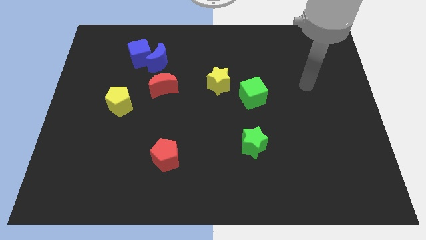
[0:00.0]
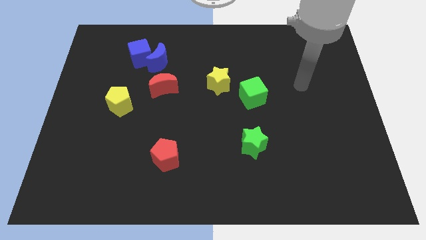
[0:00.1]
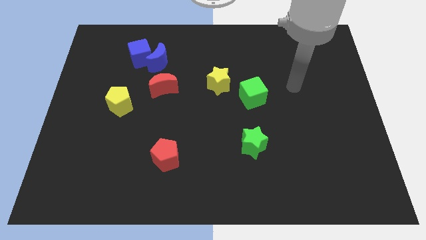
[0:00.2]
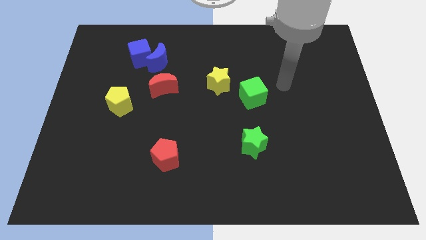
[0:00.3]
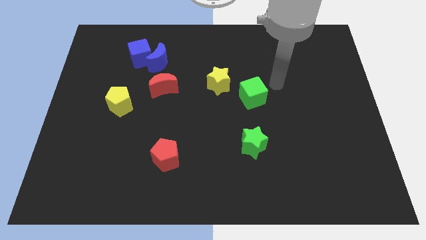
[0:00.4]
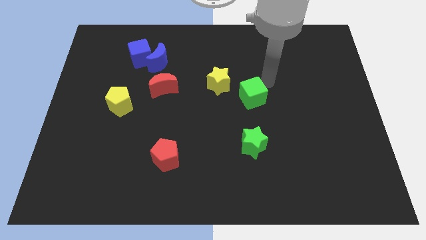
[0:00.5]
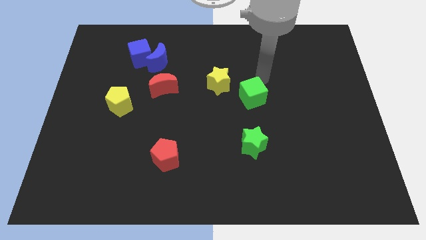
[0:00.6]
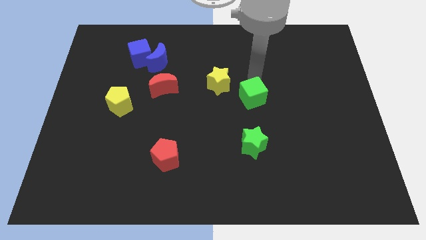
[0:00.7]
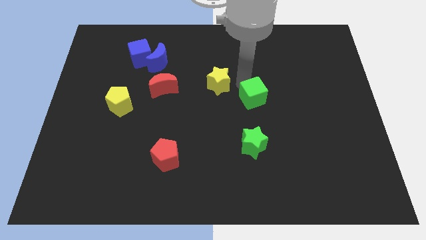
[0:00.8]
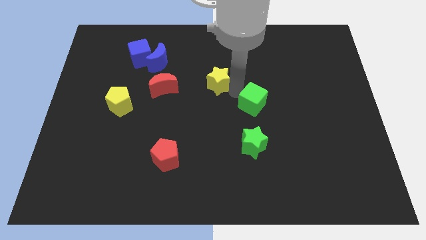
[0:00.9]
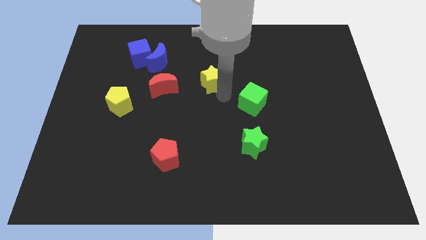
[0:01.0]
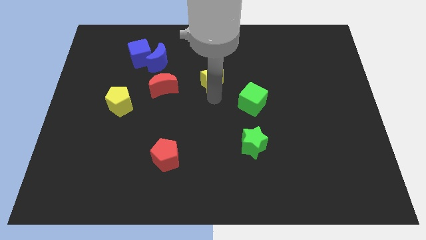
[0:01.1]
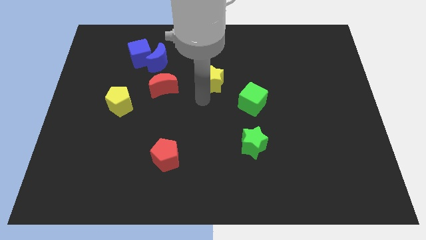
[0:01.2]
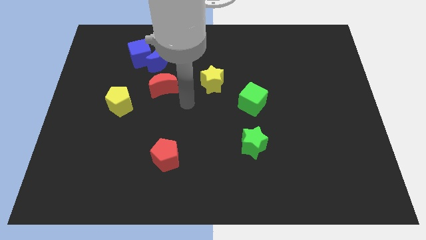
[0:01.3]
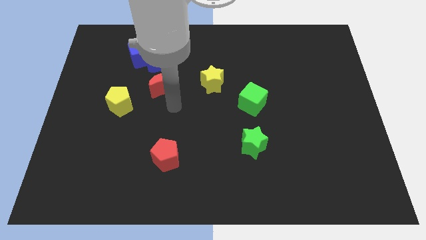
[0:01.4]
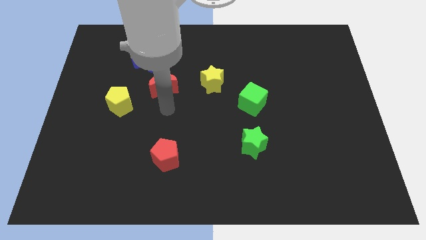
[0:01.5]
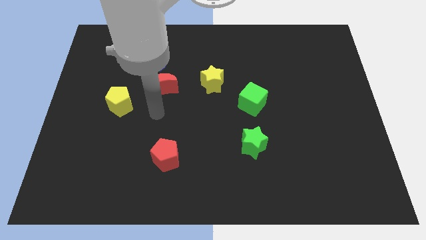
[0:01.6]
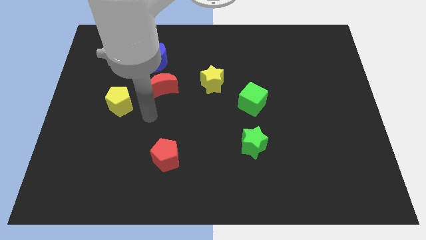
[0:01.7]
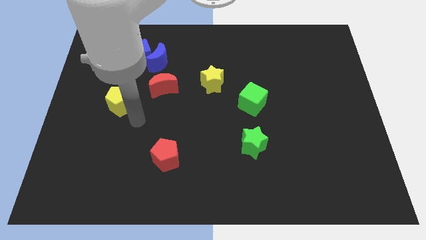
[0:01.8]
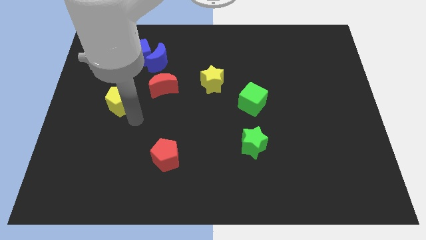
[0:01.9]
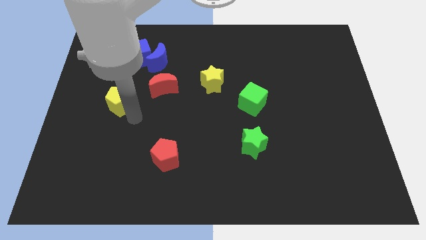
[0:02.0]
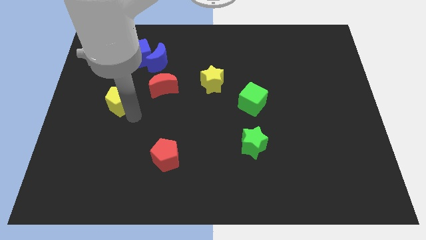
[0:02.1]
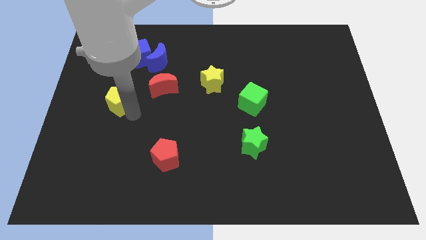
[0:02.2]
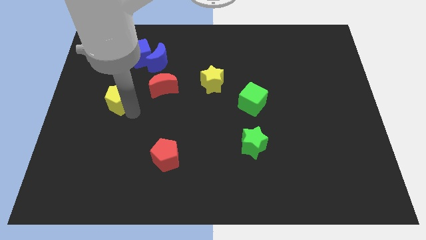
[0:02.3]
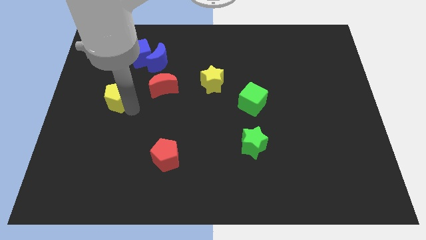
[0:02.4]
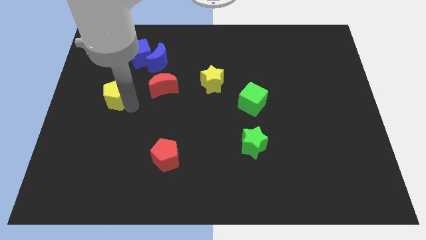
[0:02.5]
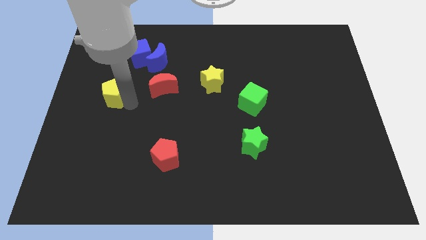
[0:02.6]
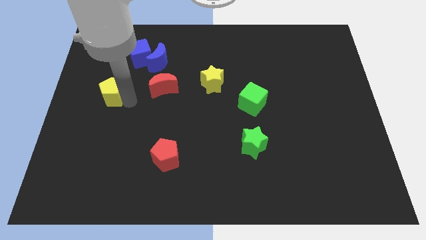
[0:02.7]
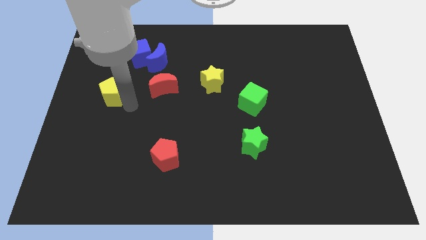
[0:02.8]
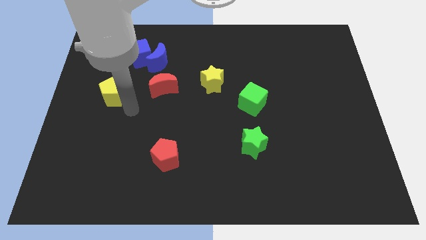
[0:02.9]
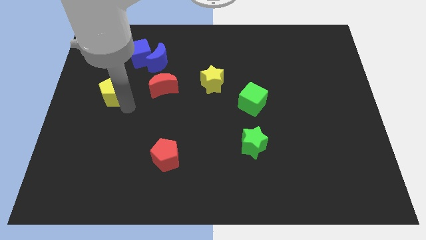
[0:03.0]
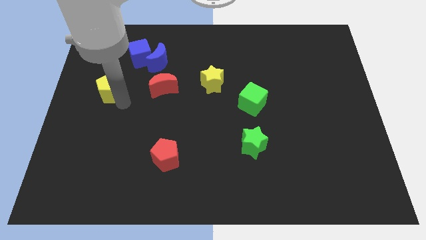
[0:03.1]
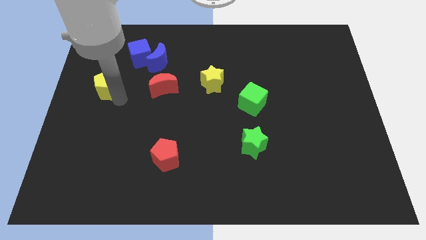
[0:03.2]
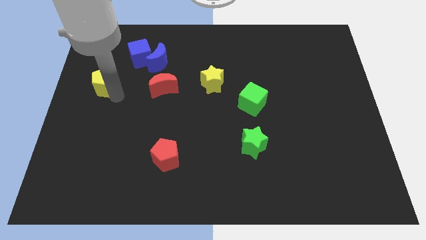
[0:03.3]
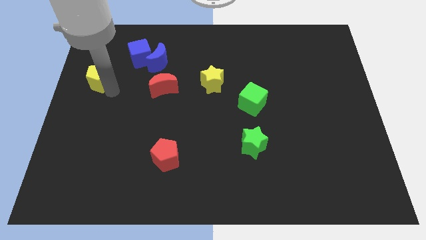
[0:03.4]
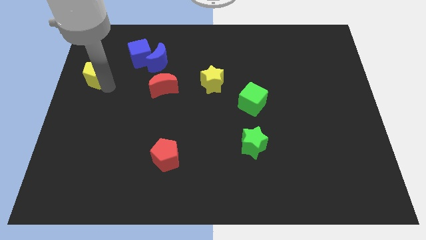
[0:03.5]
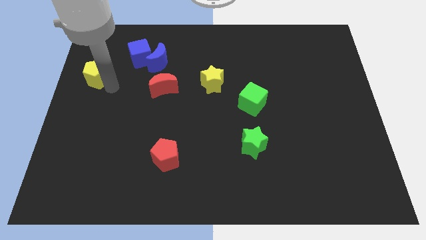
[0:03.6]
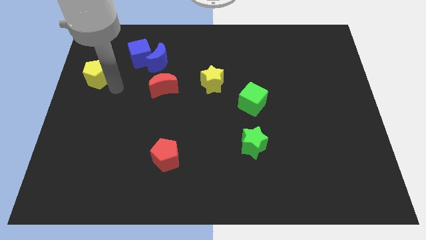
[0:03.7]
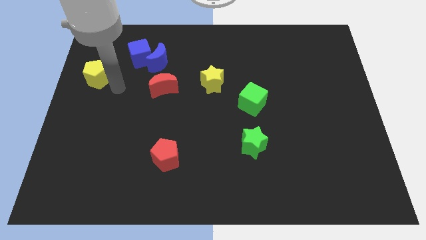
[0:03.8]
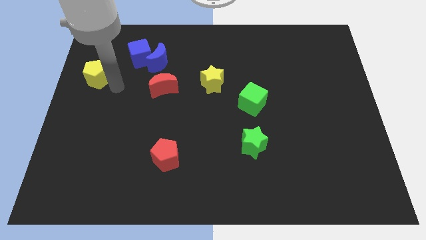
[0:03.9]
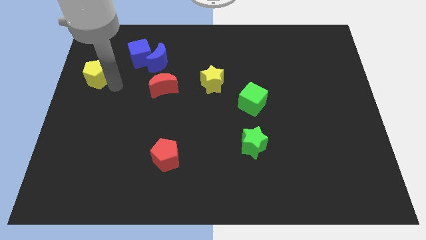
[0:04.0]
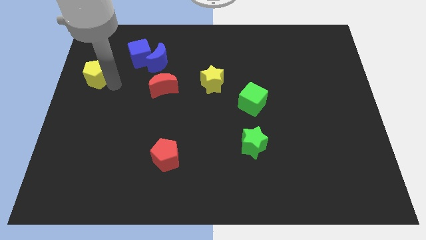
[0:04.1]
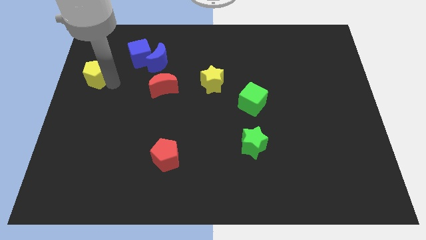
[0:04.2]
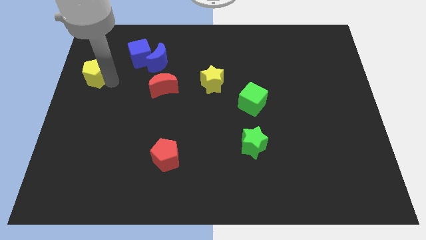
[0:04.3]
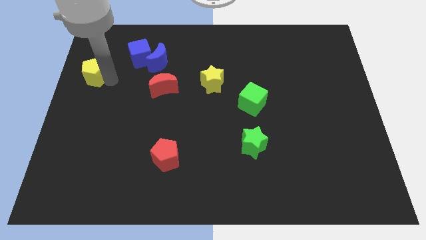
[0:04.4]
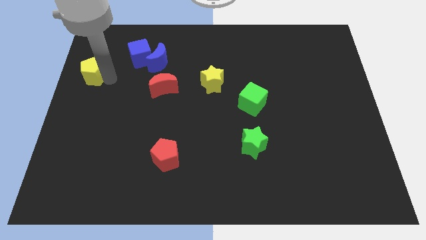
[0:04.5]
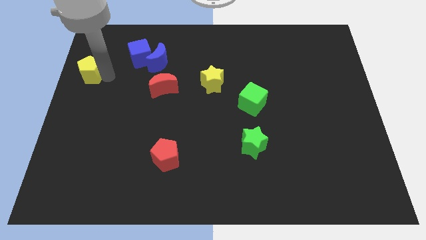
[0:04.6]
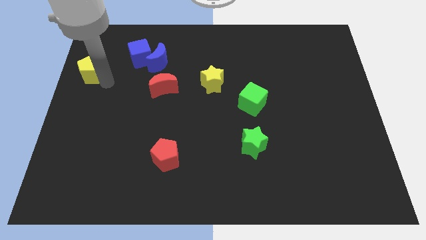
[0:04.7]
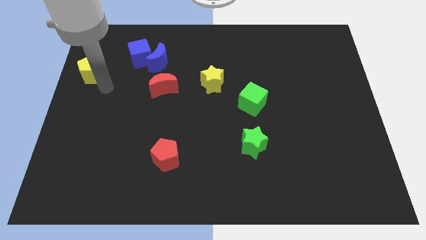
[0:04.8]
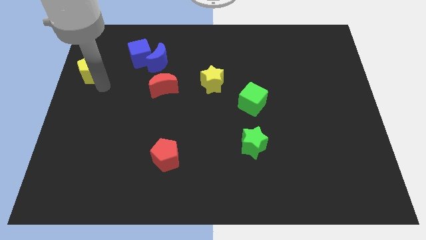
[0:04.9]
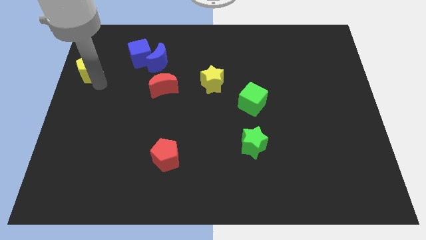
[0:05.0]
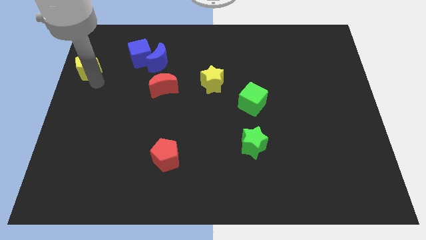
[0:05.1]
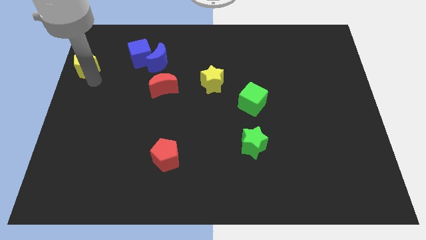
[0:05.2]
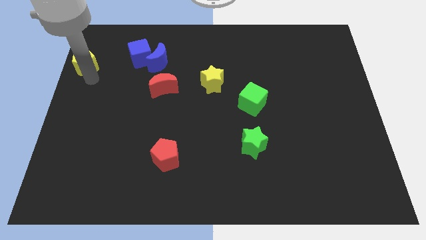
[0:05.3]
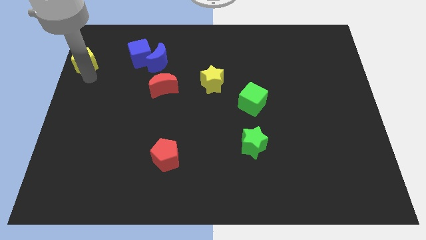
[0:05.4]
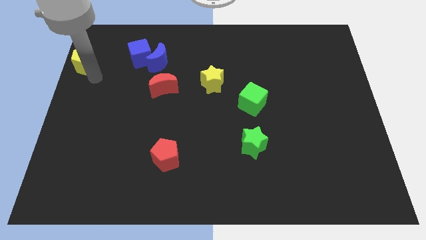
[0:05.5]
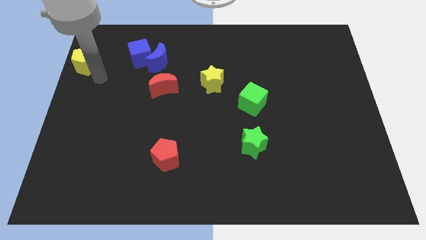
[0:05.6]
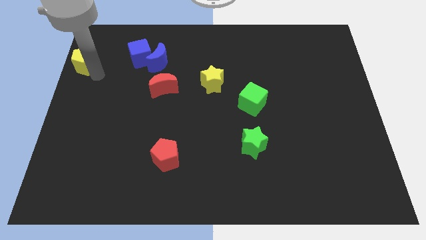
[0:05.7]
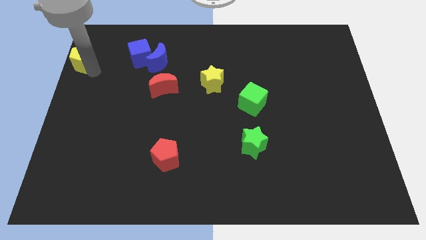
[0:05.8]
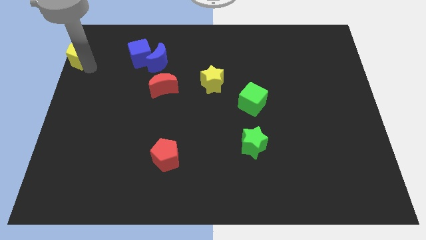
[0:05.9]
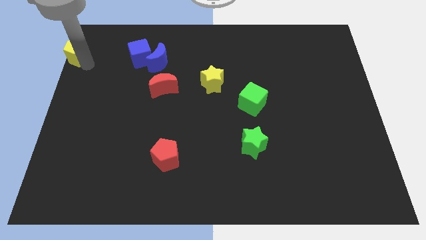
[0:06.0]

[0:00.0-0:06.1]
move the yellow pentagon to the top left corner
